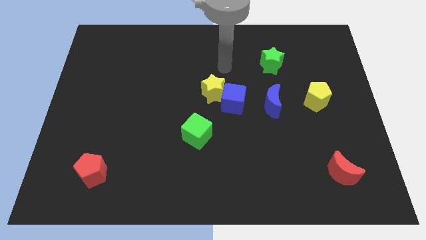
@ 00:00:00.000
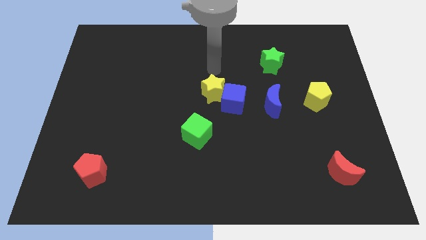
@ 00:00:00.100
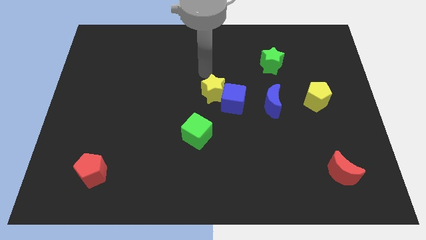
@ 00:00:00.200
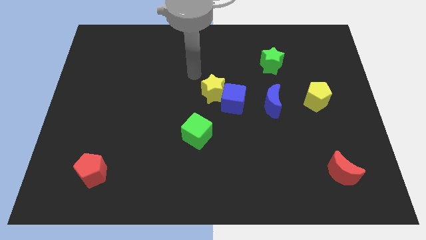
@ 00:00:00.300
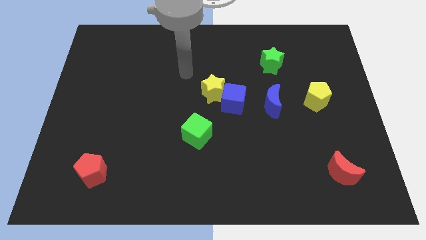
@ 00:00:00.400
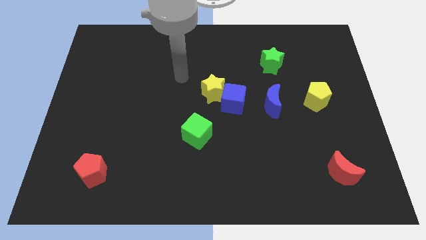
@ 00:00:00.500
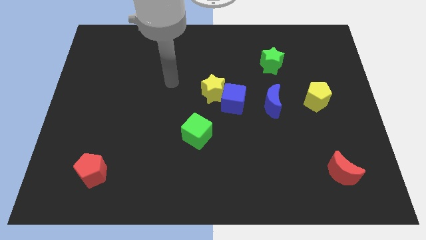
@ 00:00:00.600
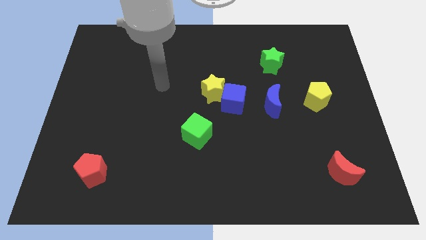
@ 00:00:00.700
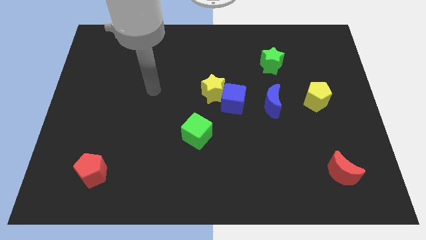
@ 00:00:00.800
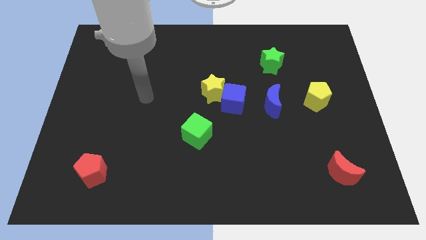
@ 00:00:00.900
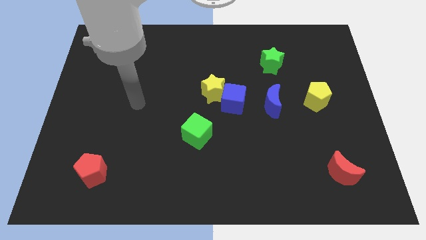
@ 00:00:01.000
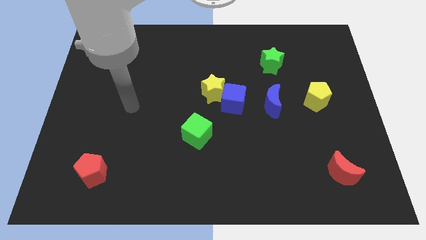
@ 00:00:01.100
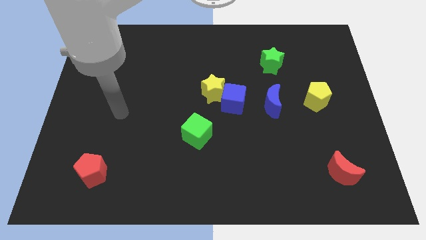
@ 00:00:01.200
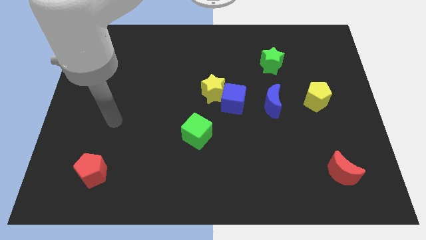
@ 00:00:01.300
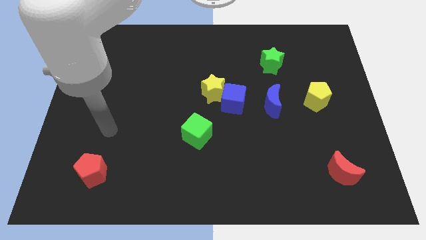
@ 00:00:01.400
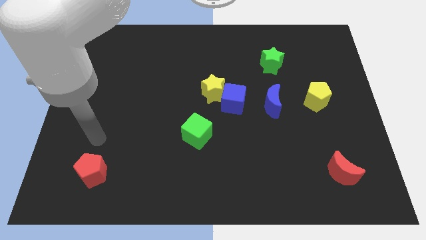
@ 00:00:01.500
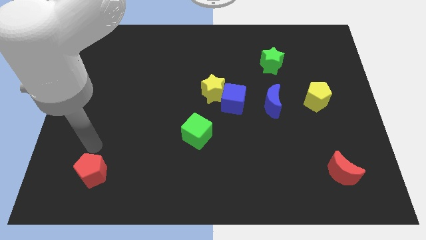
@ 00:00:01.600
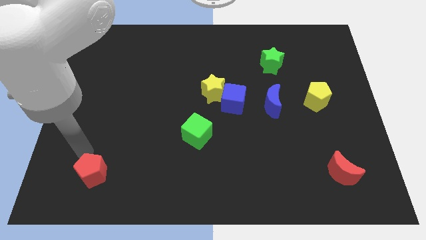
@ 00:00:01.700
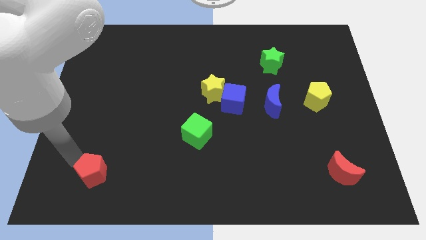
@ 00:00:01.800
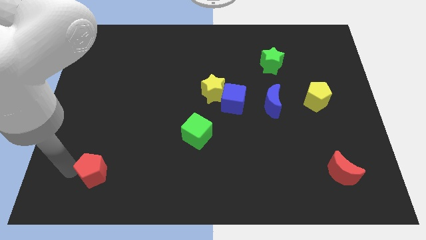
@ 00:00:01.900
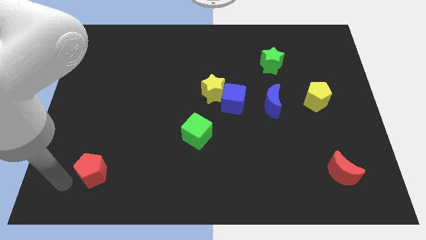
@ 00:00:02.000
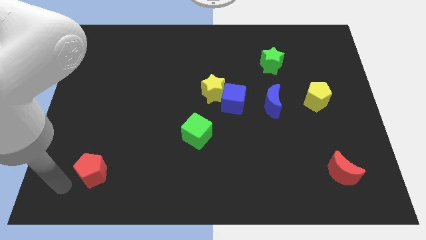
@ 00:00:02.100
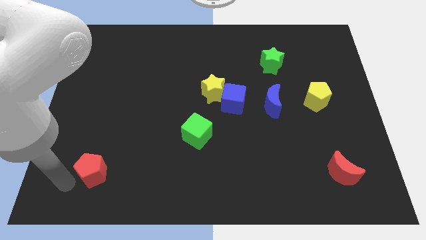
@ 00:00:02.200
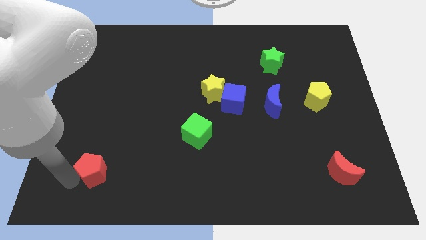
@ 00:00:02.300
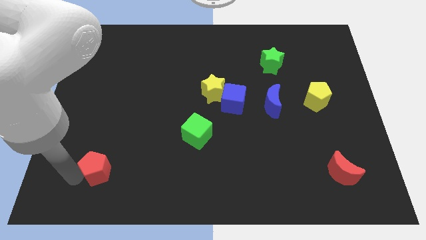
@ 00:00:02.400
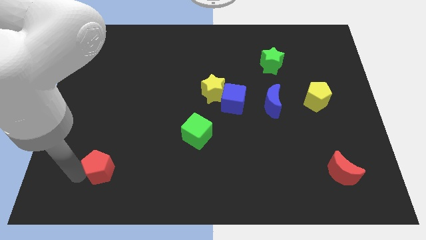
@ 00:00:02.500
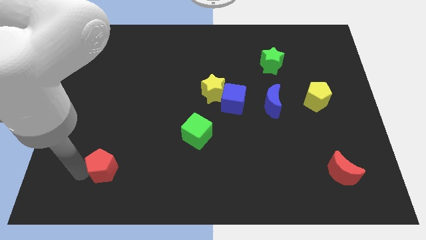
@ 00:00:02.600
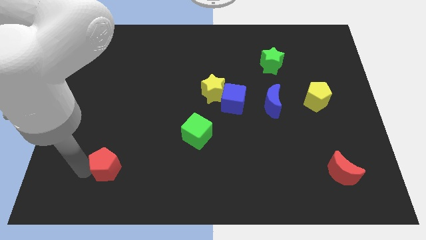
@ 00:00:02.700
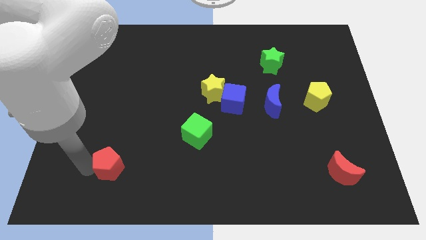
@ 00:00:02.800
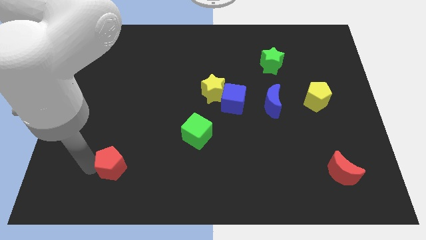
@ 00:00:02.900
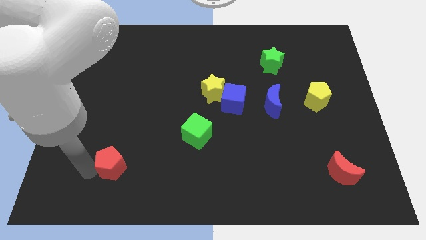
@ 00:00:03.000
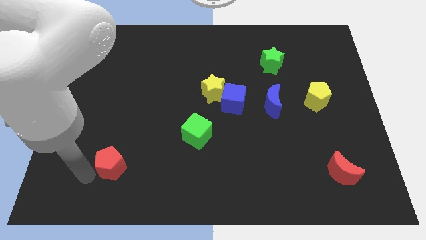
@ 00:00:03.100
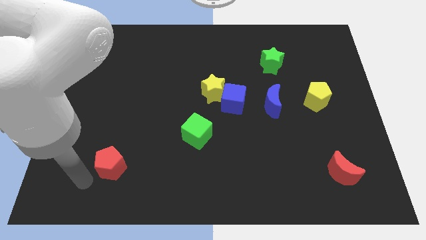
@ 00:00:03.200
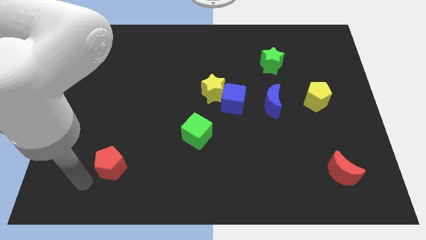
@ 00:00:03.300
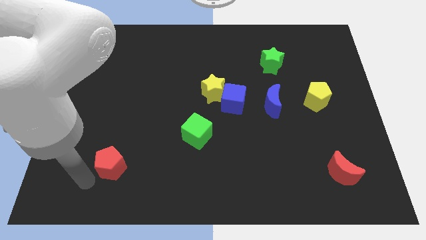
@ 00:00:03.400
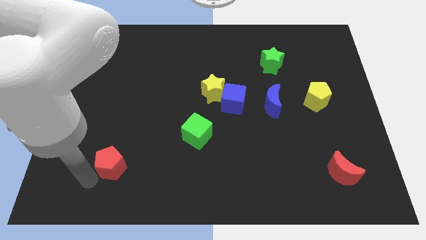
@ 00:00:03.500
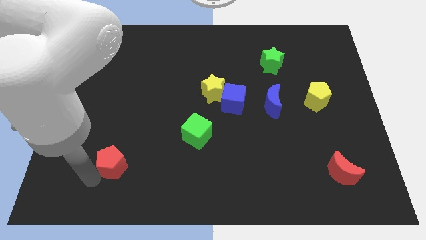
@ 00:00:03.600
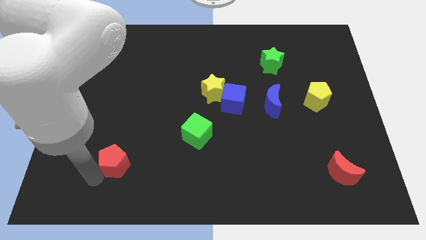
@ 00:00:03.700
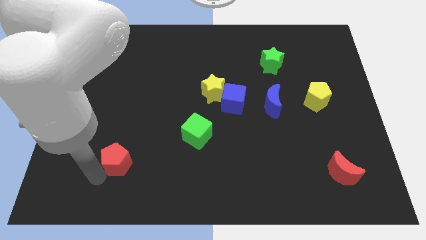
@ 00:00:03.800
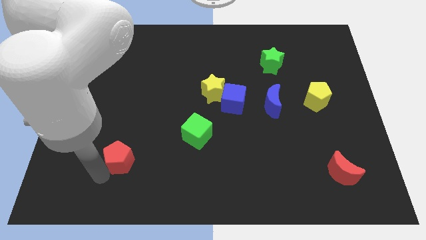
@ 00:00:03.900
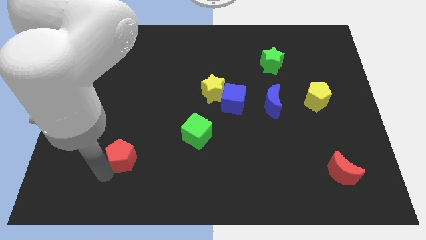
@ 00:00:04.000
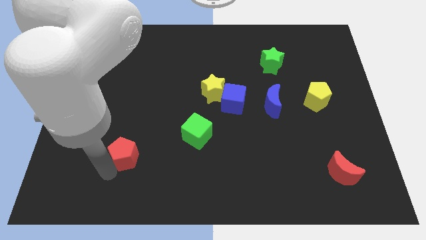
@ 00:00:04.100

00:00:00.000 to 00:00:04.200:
move the red pentagon a little diagonally upwards and right

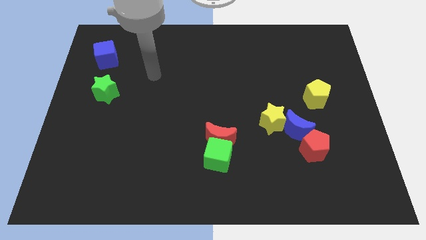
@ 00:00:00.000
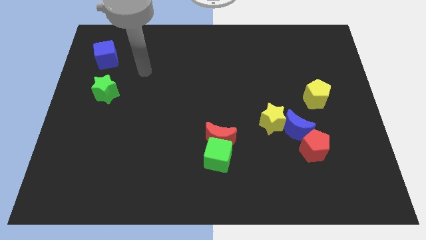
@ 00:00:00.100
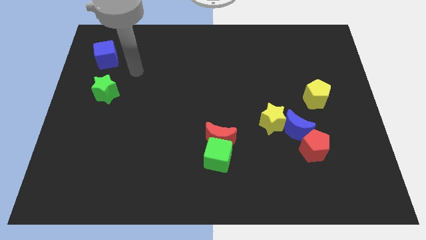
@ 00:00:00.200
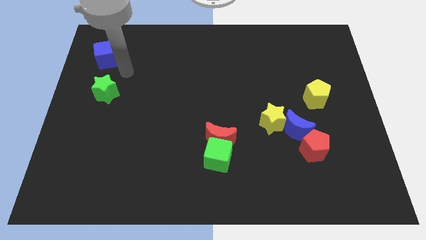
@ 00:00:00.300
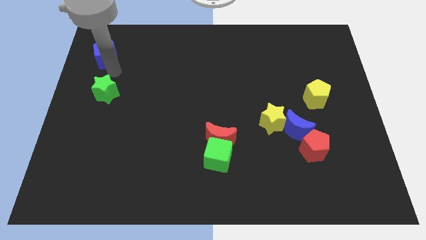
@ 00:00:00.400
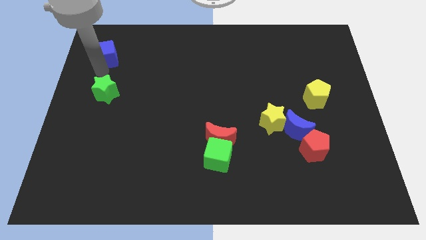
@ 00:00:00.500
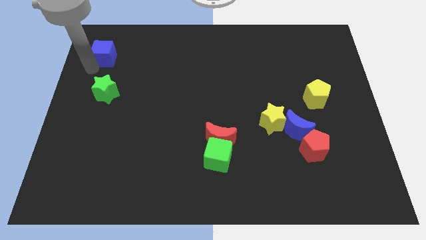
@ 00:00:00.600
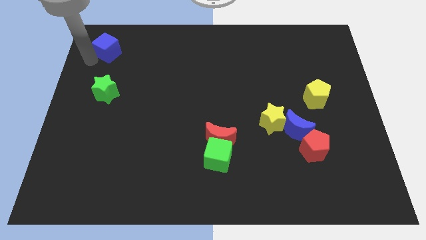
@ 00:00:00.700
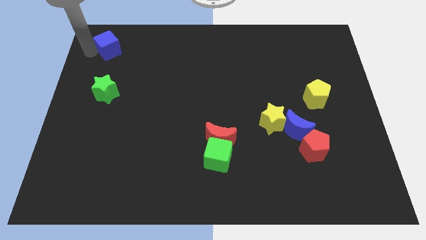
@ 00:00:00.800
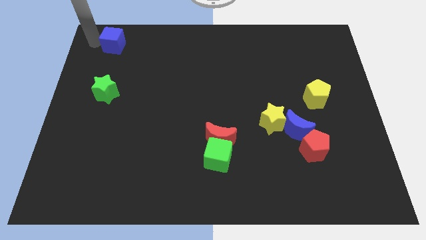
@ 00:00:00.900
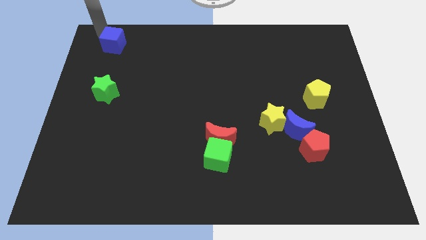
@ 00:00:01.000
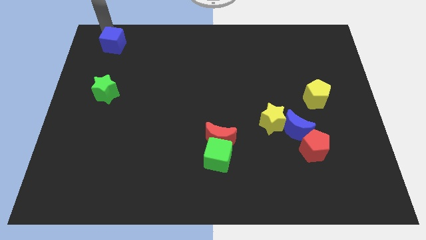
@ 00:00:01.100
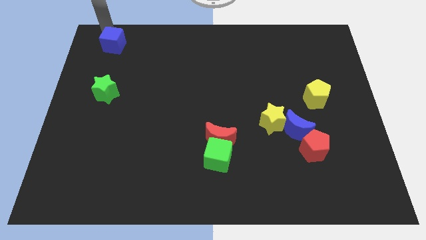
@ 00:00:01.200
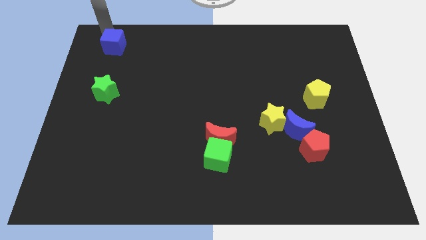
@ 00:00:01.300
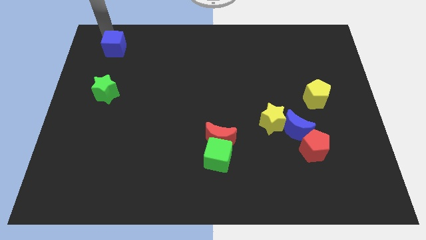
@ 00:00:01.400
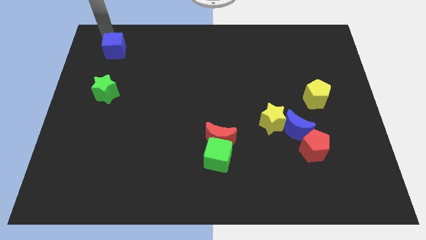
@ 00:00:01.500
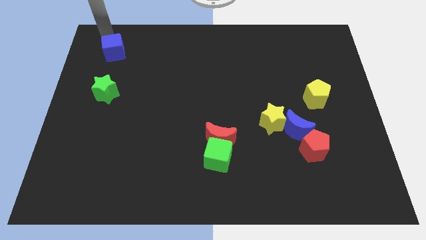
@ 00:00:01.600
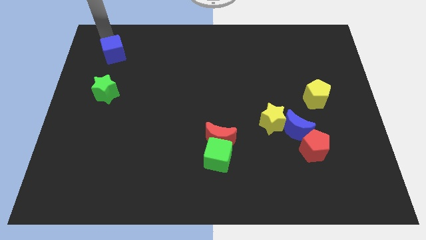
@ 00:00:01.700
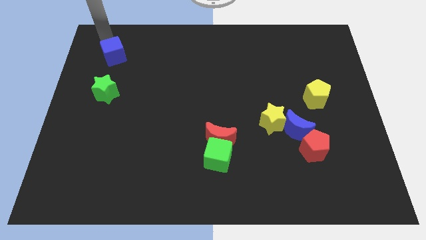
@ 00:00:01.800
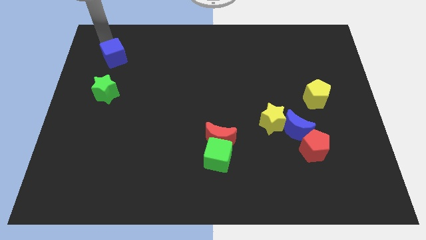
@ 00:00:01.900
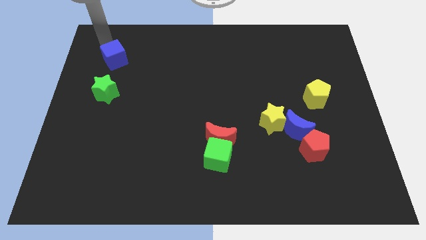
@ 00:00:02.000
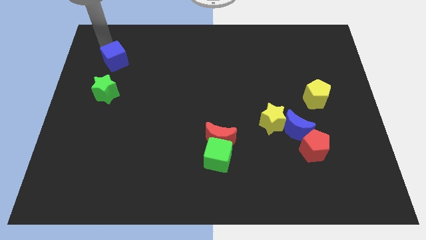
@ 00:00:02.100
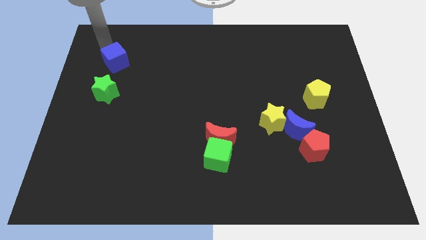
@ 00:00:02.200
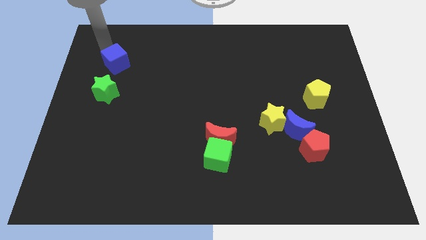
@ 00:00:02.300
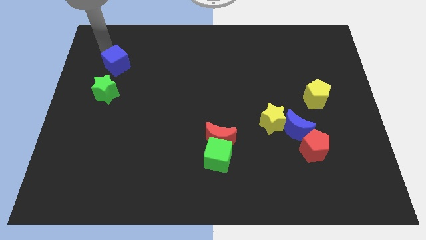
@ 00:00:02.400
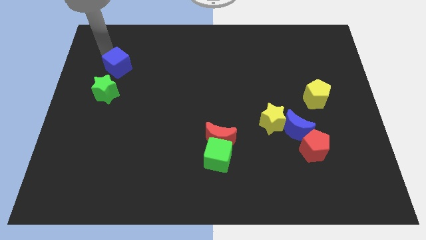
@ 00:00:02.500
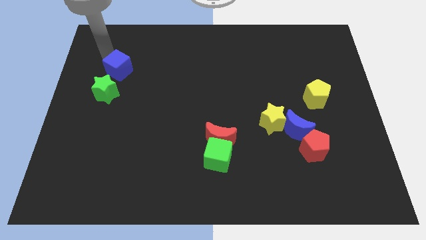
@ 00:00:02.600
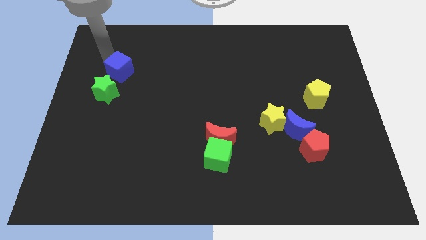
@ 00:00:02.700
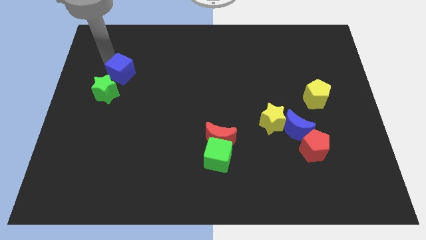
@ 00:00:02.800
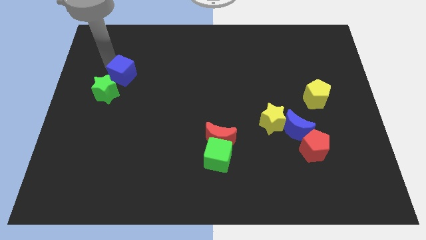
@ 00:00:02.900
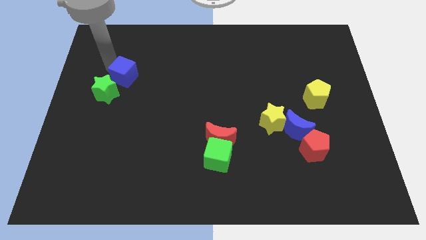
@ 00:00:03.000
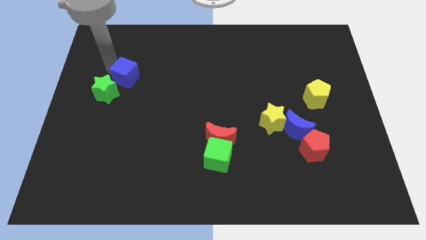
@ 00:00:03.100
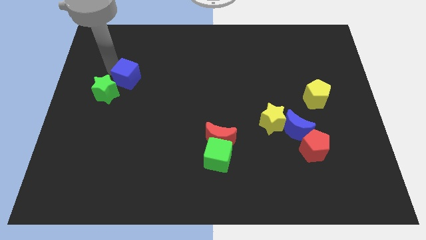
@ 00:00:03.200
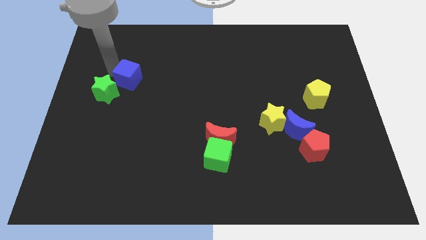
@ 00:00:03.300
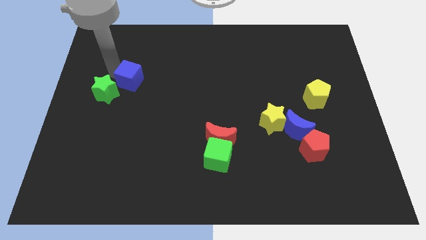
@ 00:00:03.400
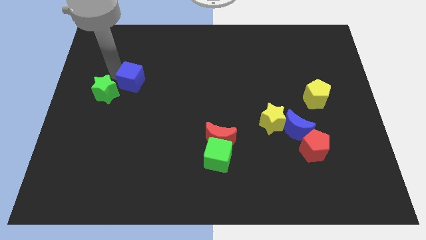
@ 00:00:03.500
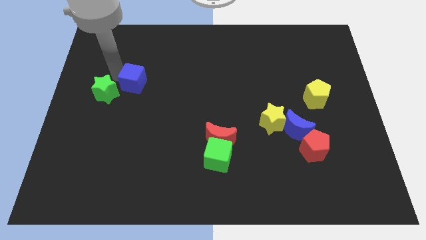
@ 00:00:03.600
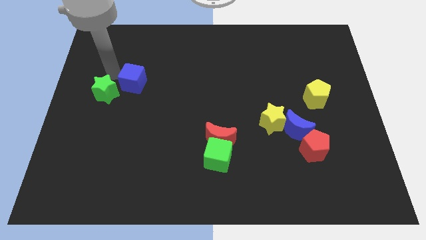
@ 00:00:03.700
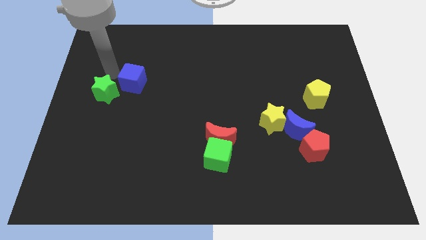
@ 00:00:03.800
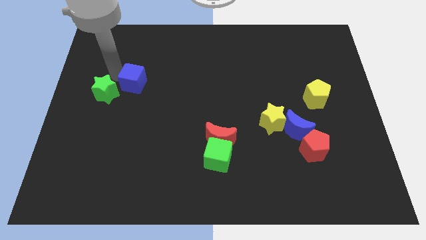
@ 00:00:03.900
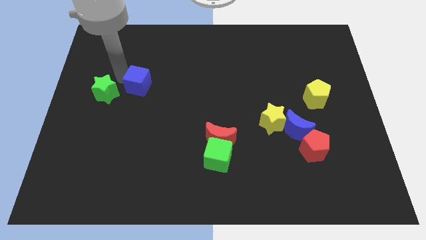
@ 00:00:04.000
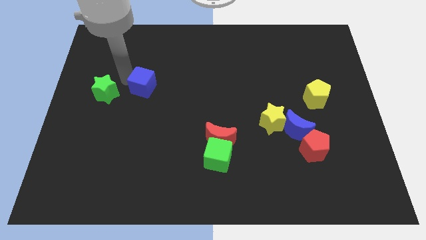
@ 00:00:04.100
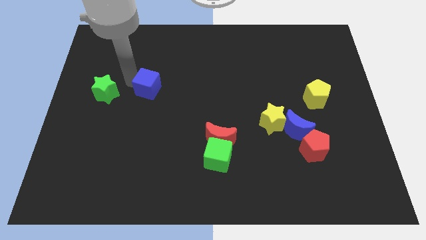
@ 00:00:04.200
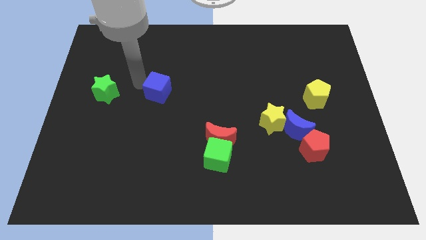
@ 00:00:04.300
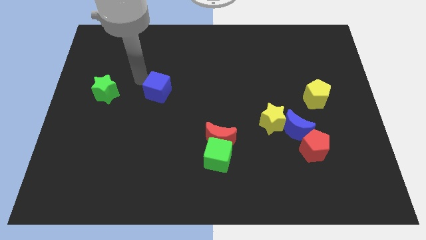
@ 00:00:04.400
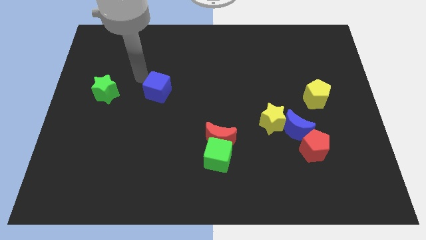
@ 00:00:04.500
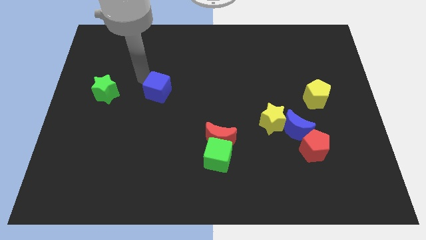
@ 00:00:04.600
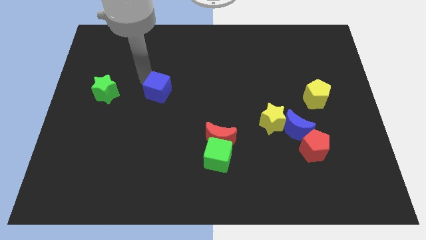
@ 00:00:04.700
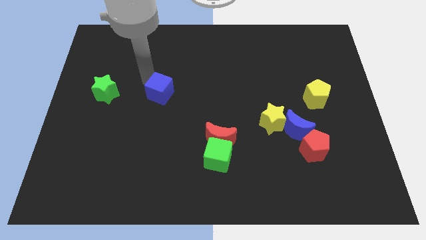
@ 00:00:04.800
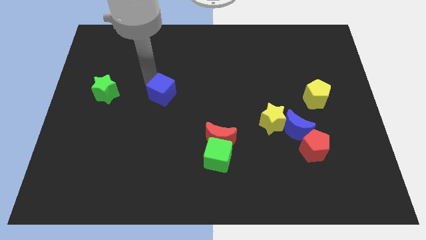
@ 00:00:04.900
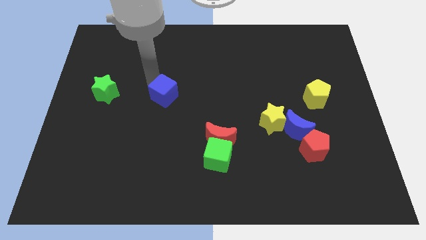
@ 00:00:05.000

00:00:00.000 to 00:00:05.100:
slide the blue cube down and then to the right
